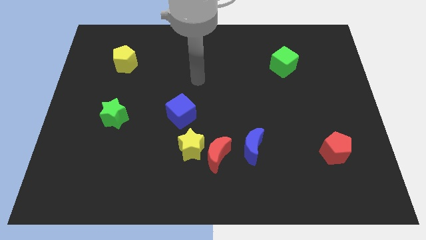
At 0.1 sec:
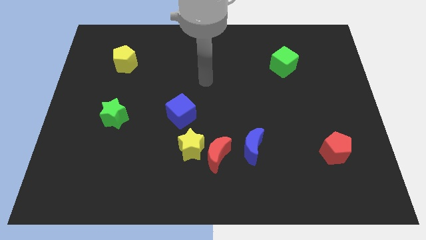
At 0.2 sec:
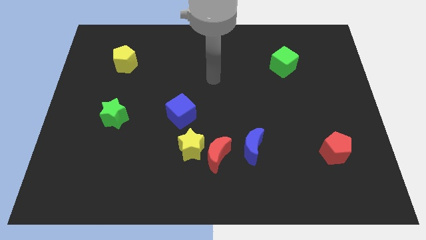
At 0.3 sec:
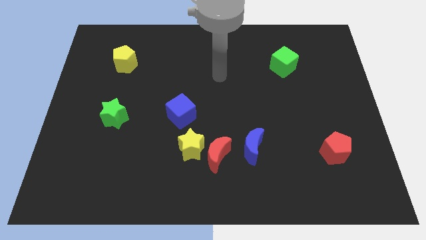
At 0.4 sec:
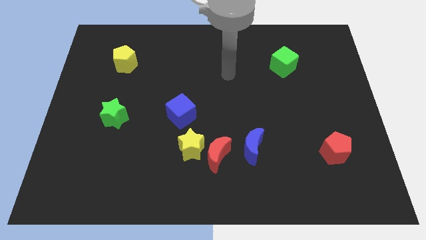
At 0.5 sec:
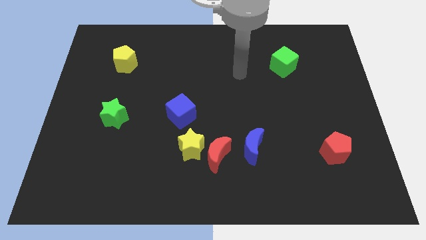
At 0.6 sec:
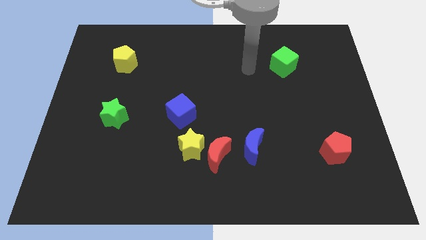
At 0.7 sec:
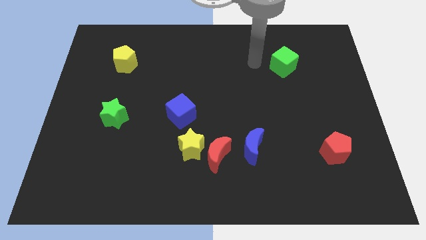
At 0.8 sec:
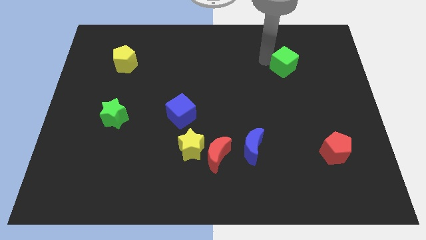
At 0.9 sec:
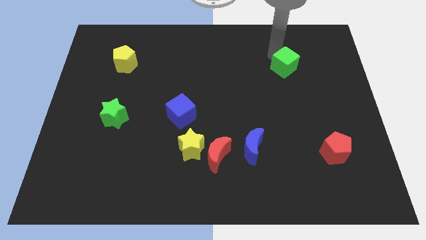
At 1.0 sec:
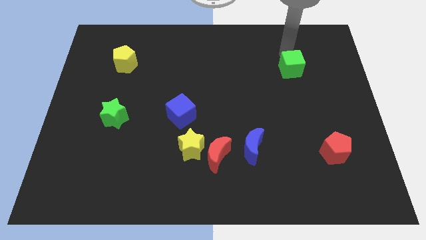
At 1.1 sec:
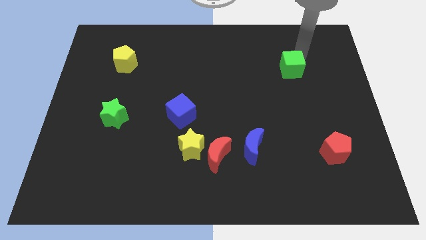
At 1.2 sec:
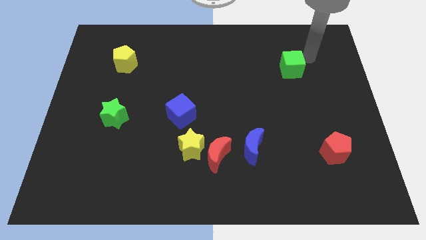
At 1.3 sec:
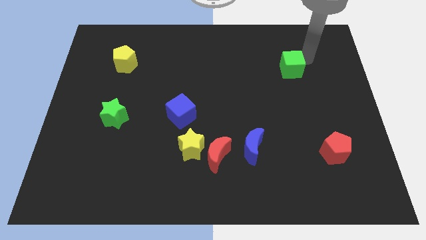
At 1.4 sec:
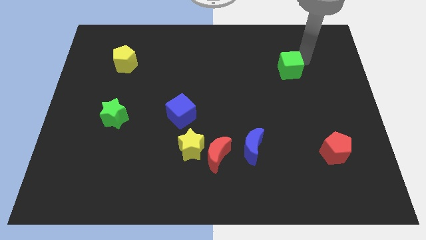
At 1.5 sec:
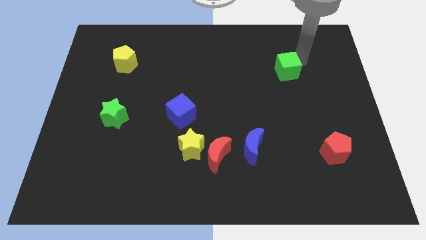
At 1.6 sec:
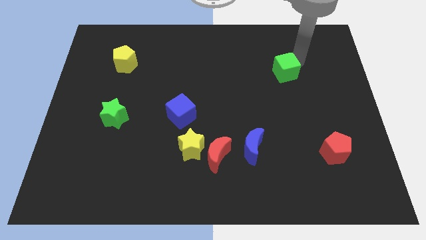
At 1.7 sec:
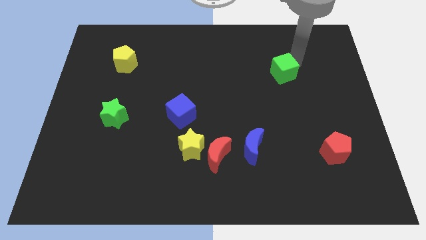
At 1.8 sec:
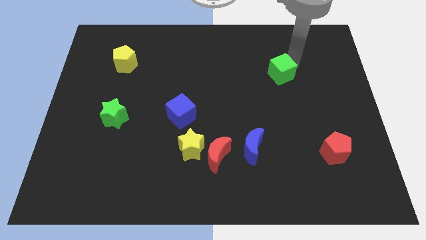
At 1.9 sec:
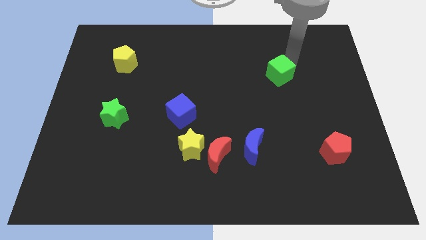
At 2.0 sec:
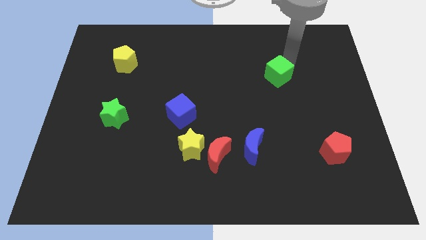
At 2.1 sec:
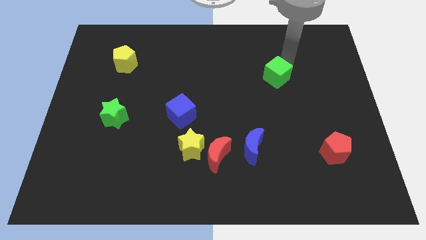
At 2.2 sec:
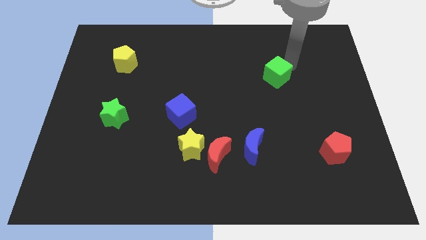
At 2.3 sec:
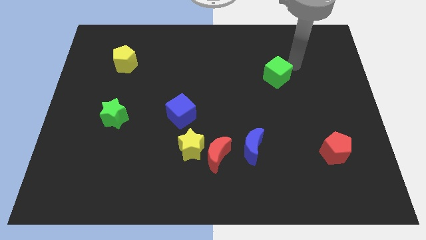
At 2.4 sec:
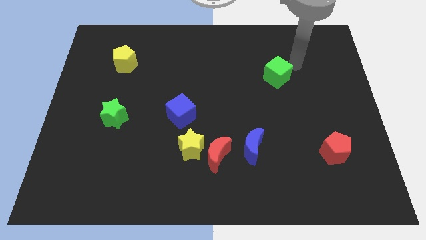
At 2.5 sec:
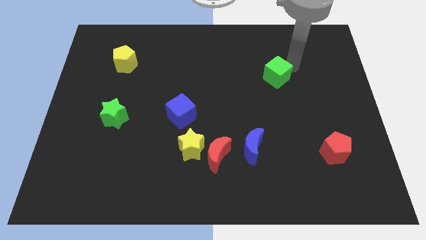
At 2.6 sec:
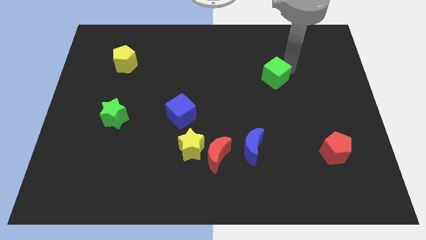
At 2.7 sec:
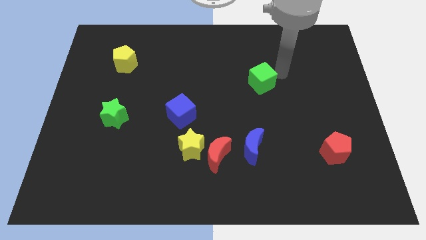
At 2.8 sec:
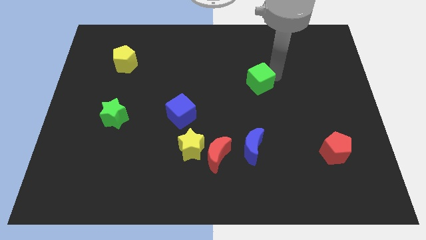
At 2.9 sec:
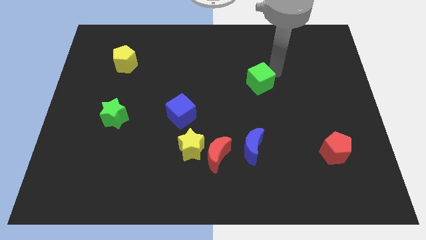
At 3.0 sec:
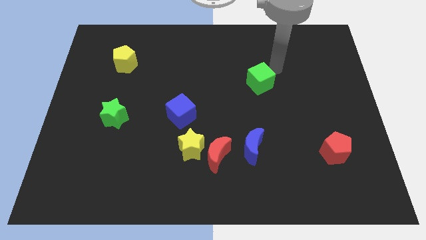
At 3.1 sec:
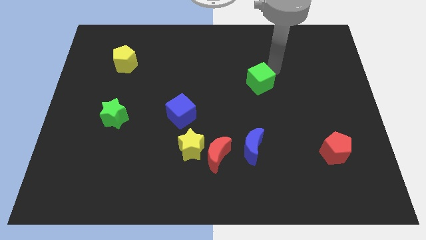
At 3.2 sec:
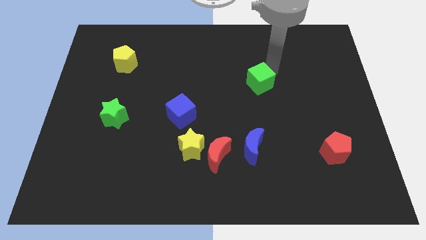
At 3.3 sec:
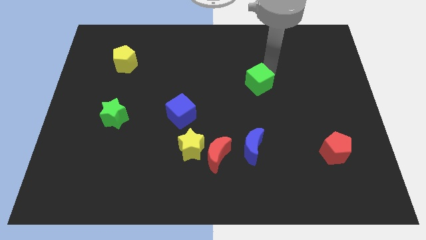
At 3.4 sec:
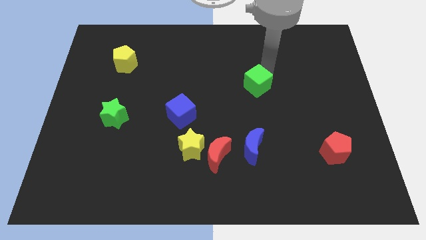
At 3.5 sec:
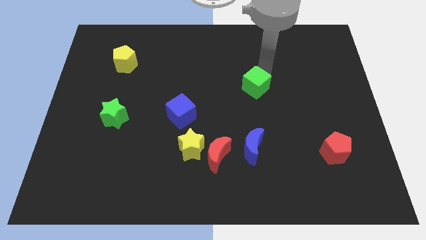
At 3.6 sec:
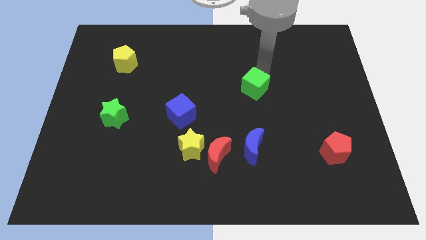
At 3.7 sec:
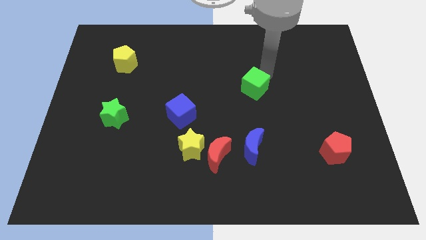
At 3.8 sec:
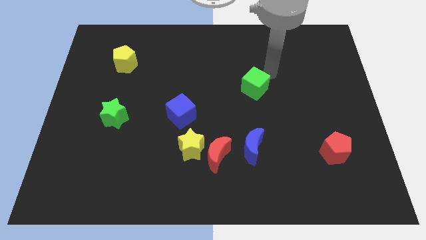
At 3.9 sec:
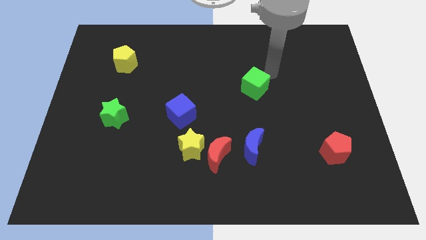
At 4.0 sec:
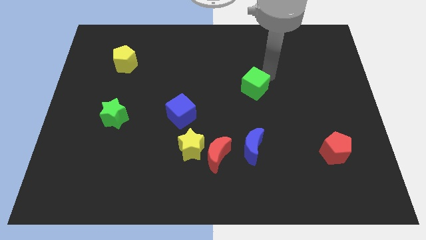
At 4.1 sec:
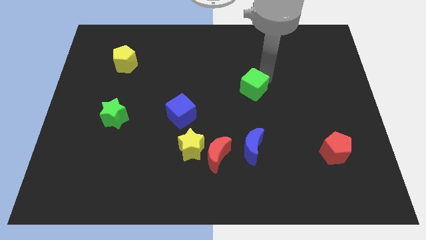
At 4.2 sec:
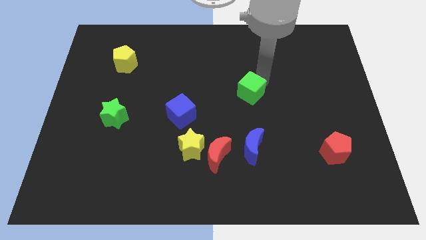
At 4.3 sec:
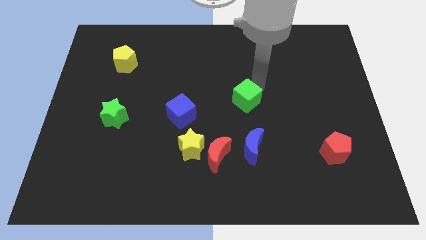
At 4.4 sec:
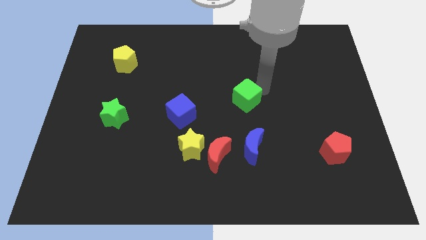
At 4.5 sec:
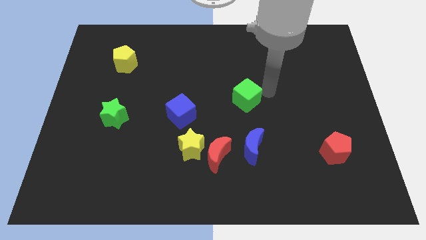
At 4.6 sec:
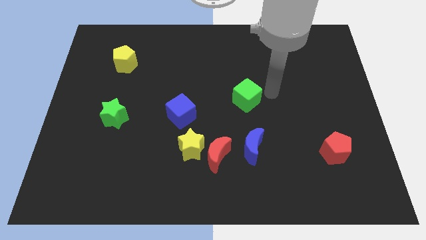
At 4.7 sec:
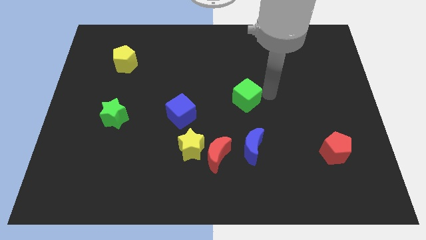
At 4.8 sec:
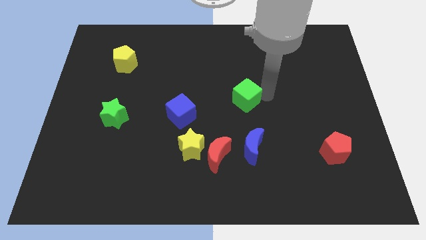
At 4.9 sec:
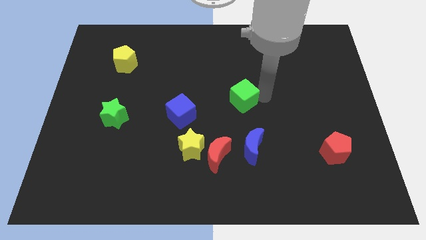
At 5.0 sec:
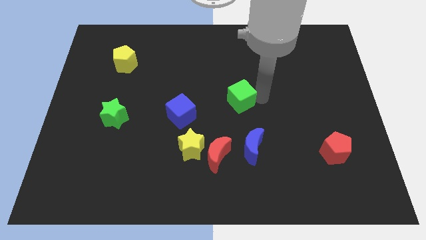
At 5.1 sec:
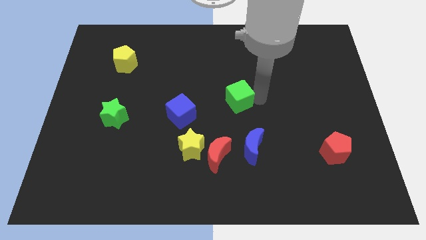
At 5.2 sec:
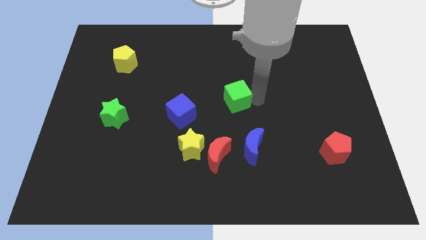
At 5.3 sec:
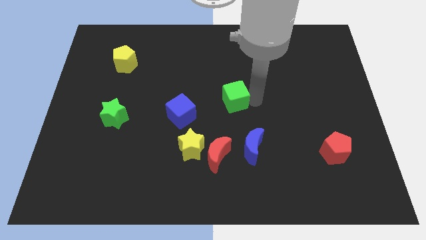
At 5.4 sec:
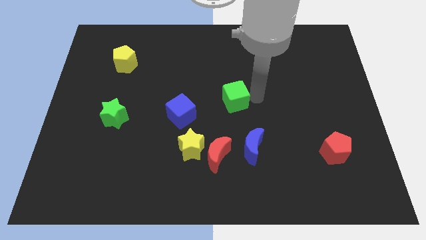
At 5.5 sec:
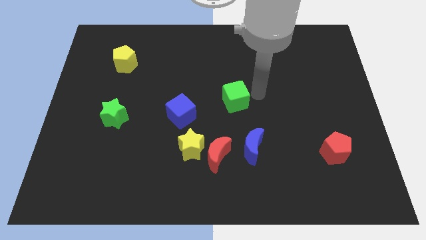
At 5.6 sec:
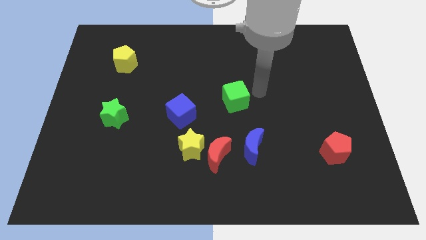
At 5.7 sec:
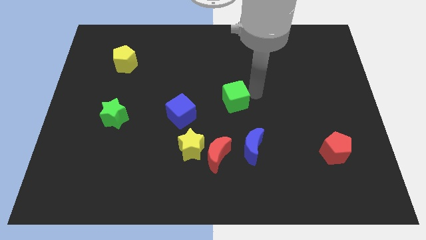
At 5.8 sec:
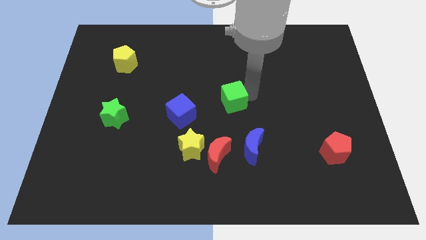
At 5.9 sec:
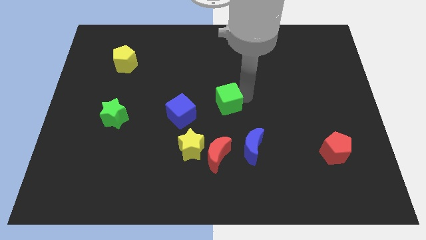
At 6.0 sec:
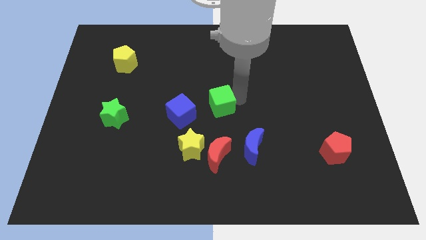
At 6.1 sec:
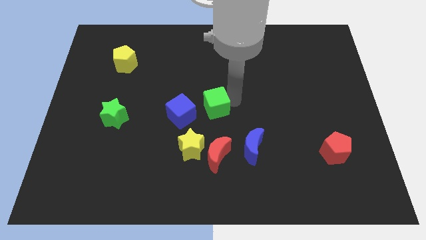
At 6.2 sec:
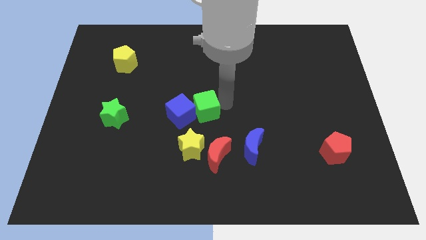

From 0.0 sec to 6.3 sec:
put the green cube to the blue cube

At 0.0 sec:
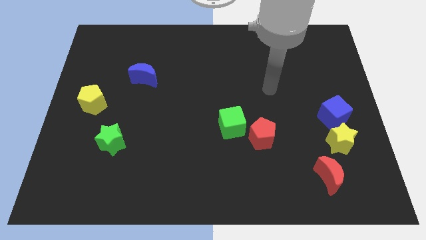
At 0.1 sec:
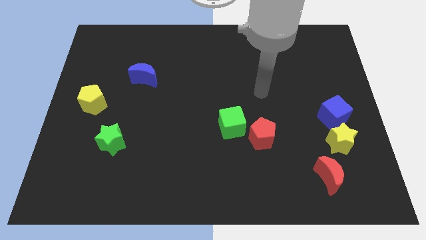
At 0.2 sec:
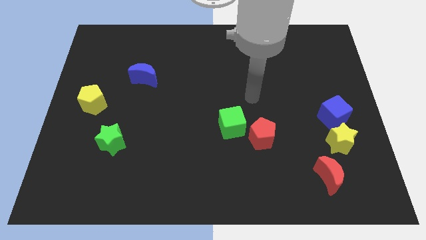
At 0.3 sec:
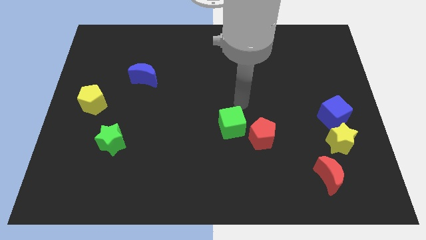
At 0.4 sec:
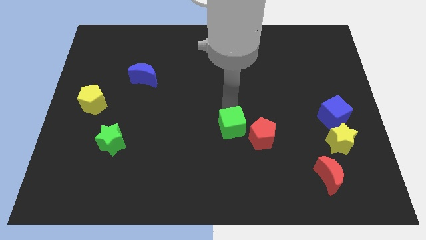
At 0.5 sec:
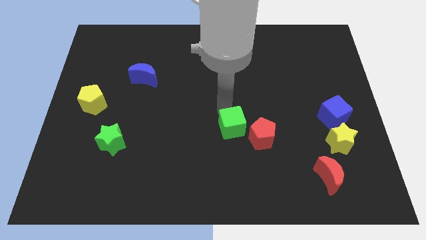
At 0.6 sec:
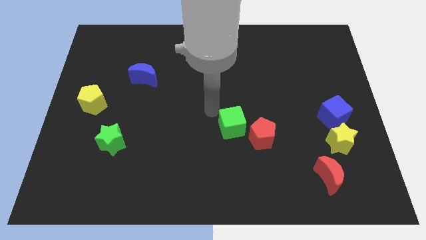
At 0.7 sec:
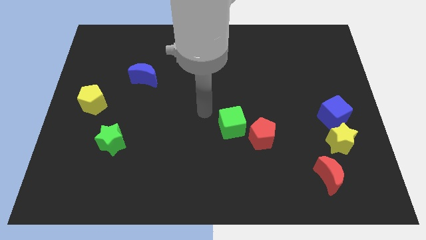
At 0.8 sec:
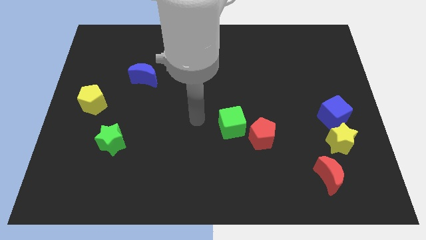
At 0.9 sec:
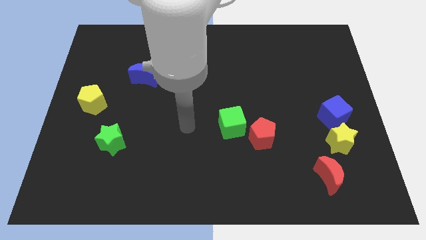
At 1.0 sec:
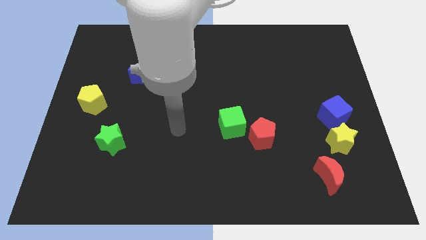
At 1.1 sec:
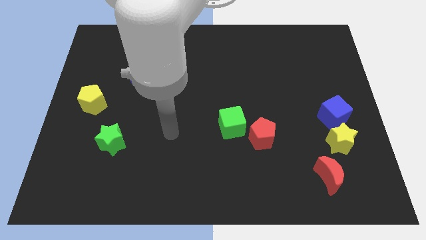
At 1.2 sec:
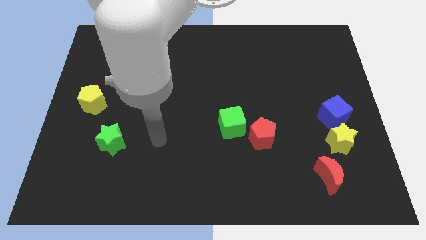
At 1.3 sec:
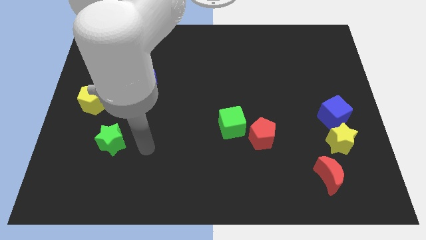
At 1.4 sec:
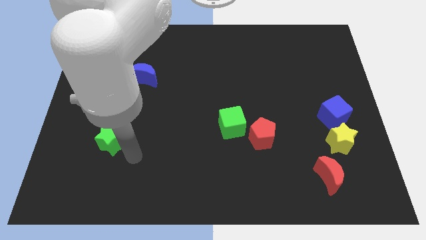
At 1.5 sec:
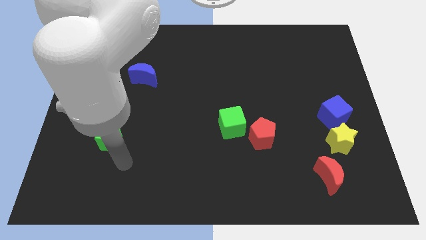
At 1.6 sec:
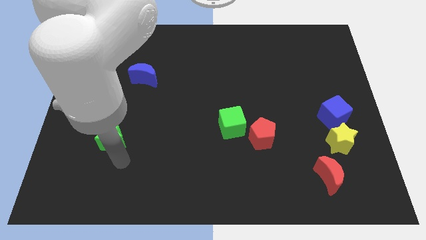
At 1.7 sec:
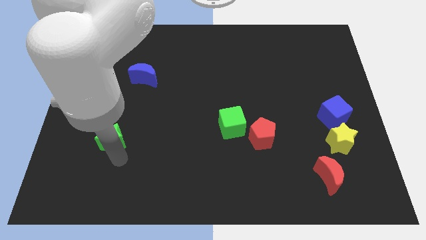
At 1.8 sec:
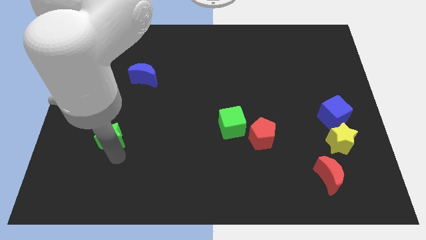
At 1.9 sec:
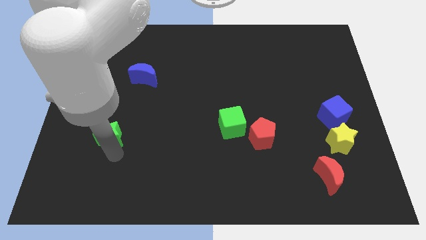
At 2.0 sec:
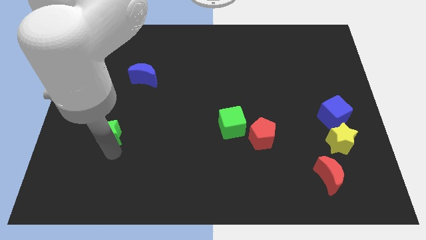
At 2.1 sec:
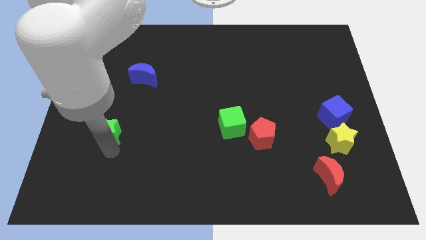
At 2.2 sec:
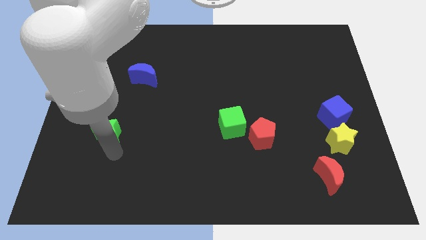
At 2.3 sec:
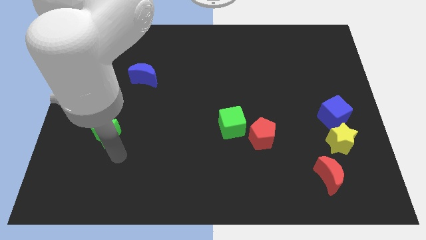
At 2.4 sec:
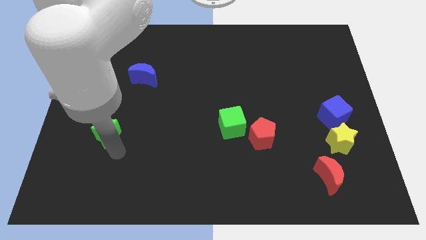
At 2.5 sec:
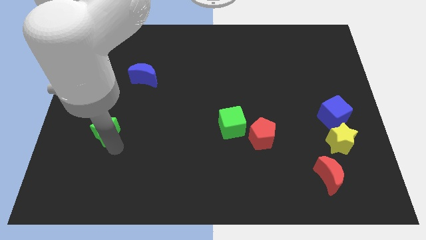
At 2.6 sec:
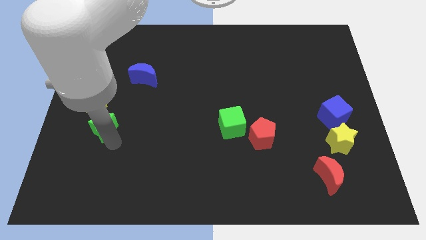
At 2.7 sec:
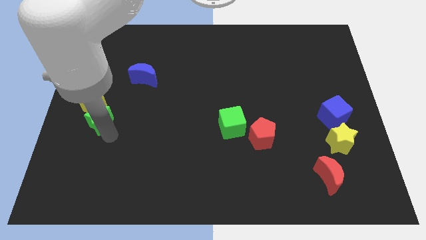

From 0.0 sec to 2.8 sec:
push the green star close to the yellow pentagon
